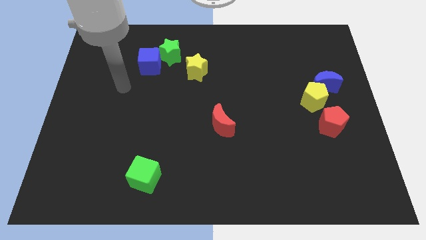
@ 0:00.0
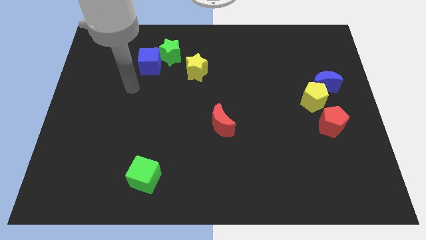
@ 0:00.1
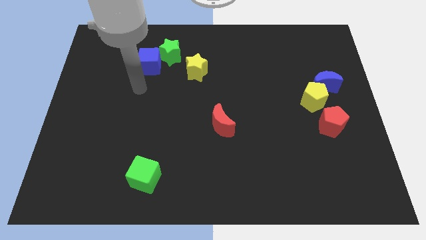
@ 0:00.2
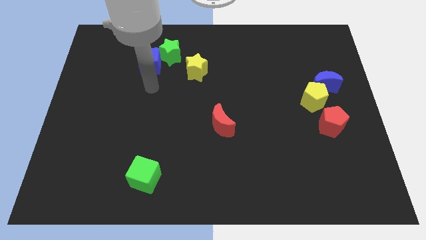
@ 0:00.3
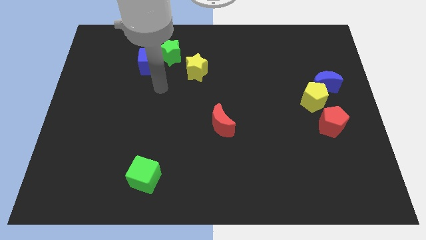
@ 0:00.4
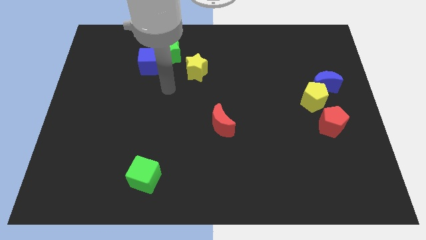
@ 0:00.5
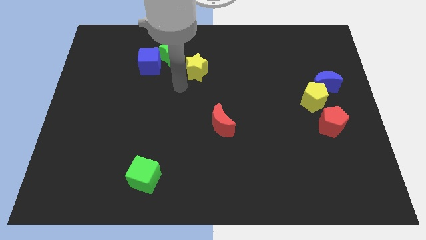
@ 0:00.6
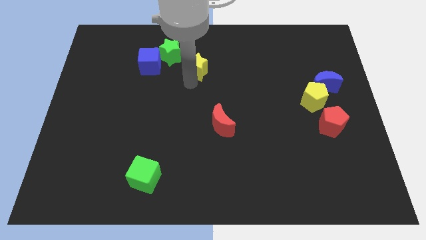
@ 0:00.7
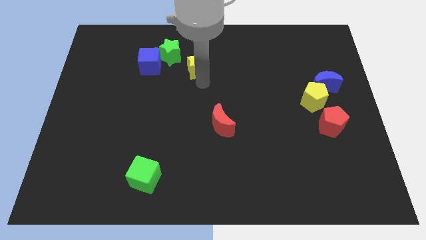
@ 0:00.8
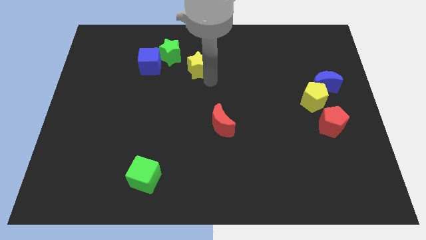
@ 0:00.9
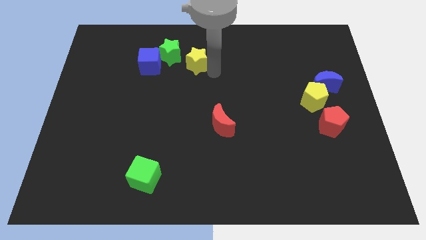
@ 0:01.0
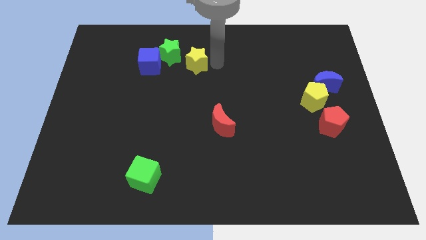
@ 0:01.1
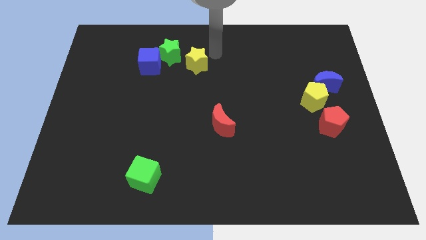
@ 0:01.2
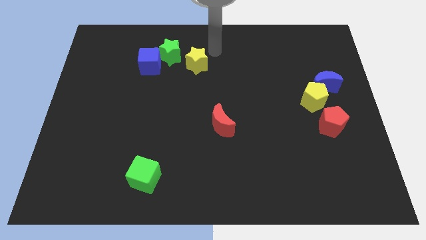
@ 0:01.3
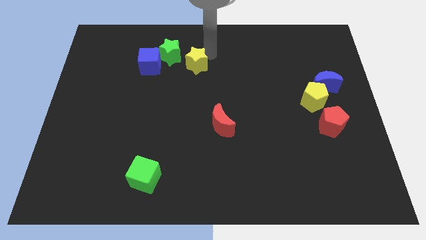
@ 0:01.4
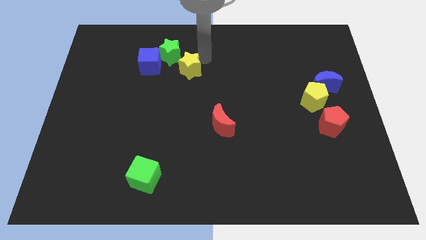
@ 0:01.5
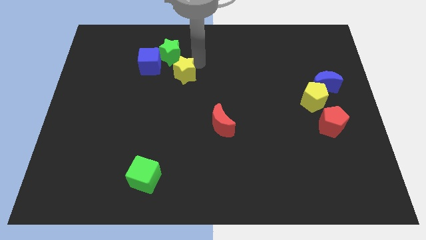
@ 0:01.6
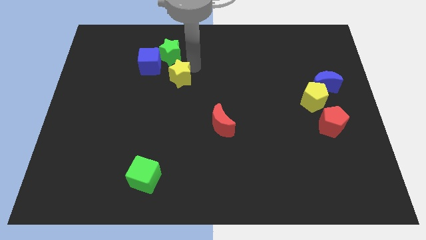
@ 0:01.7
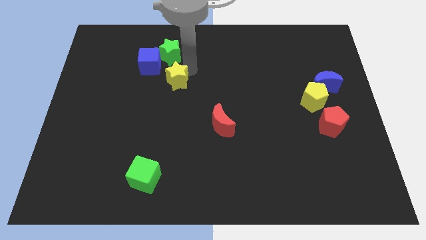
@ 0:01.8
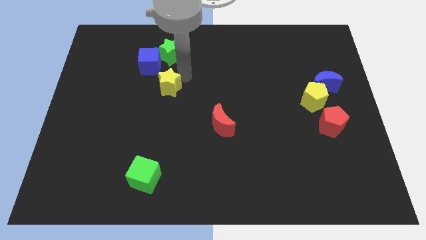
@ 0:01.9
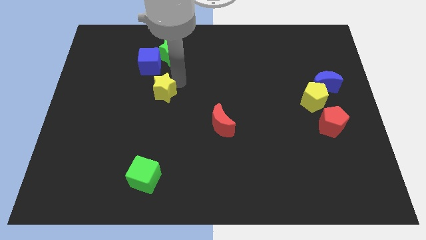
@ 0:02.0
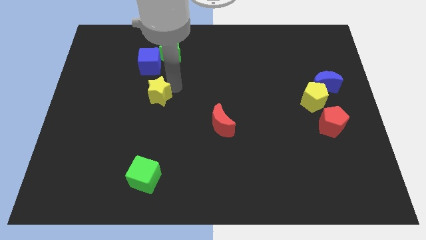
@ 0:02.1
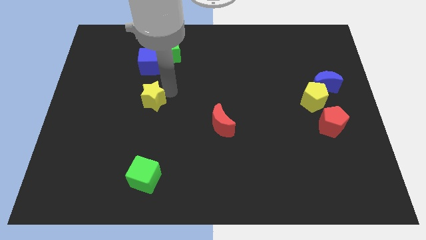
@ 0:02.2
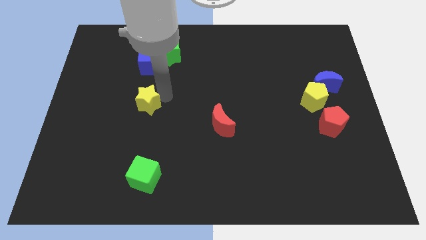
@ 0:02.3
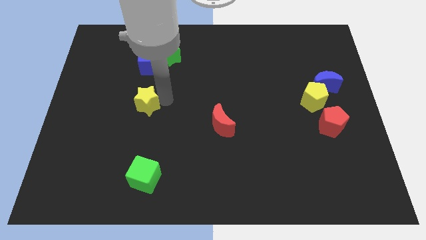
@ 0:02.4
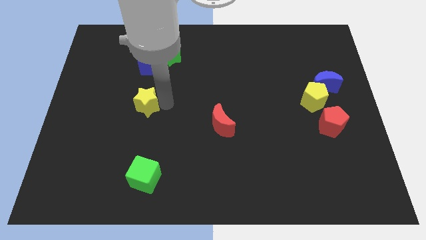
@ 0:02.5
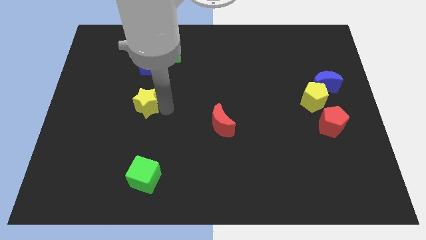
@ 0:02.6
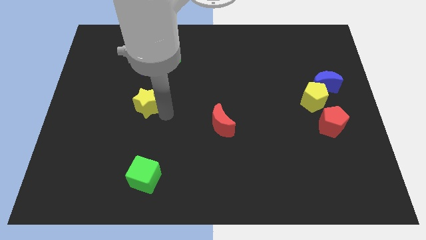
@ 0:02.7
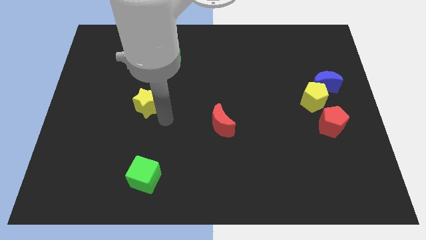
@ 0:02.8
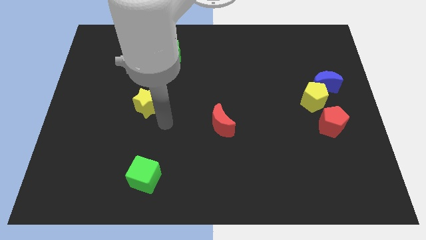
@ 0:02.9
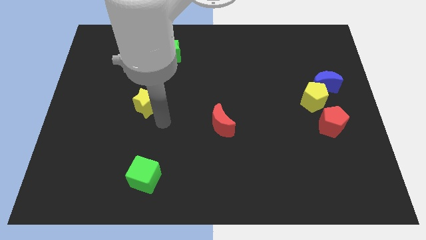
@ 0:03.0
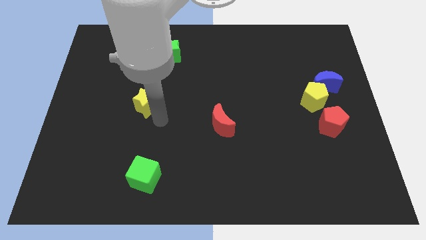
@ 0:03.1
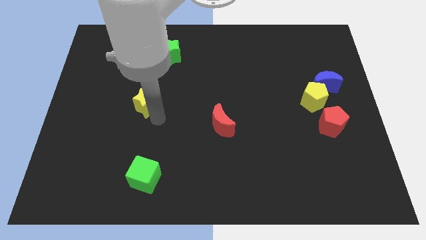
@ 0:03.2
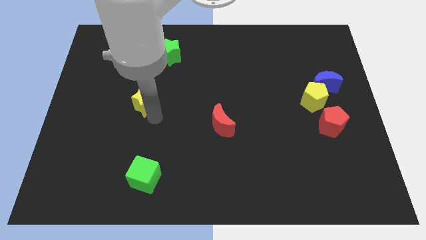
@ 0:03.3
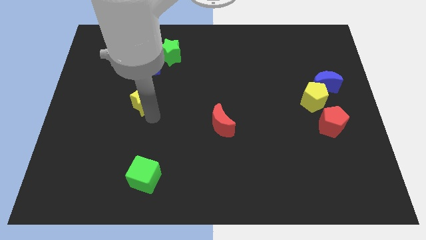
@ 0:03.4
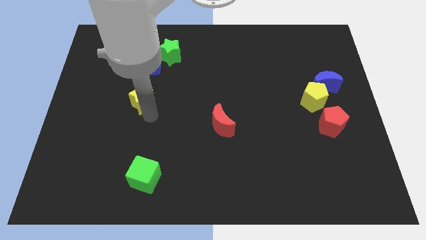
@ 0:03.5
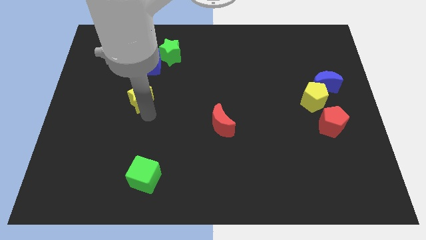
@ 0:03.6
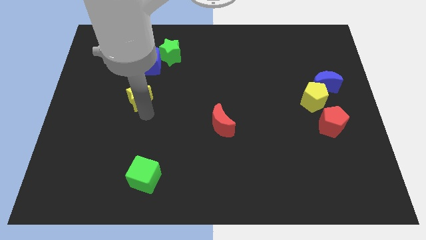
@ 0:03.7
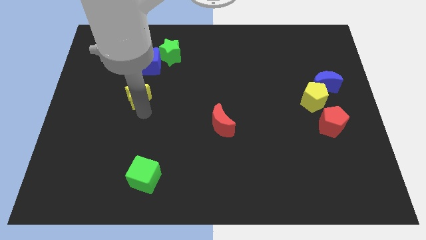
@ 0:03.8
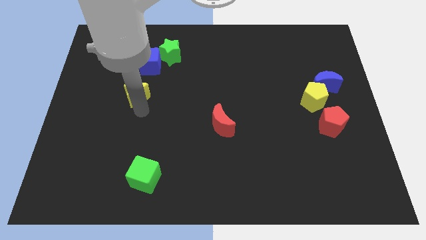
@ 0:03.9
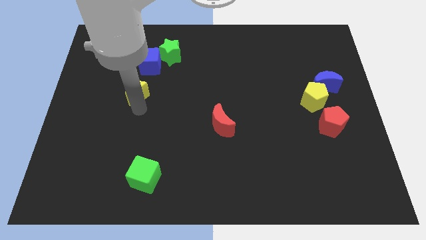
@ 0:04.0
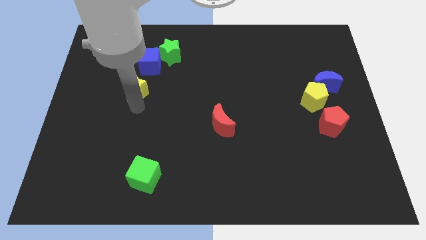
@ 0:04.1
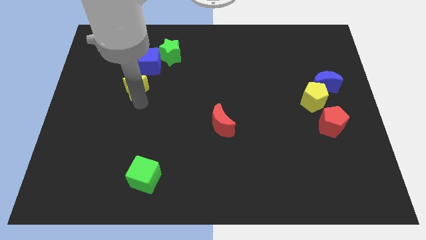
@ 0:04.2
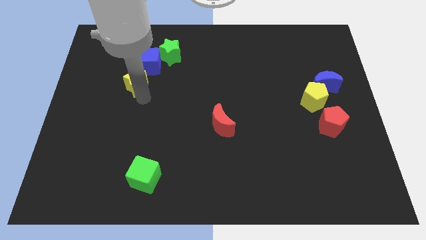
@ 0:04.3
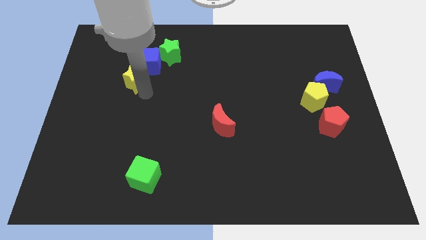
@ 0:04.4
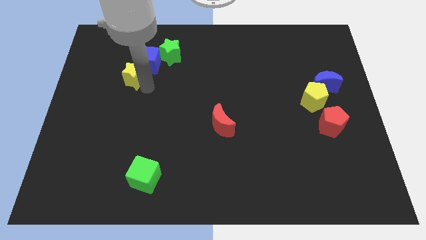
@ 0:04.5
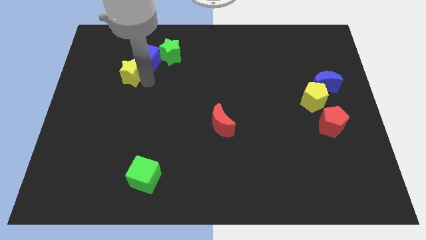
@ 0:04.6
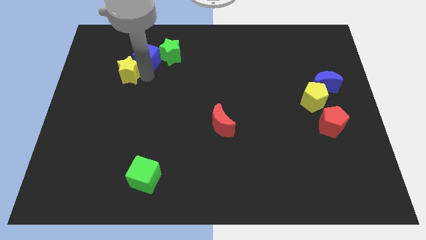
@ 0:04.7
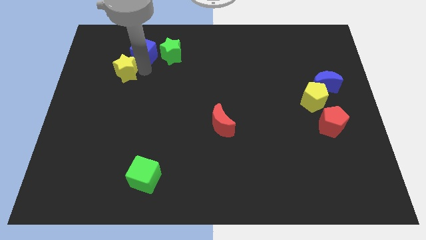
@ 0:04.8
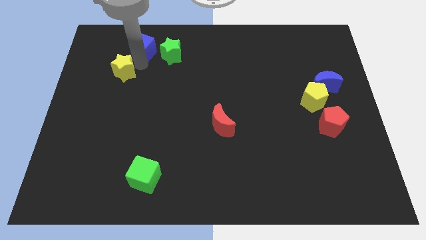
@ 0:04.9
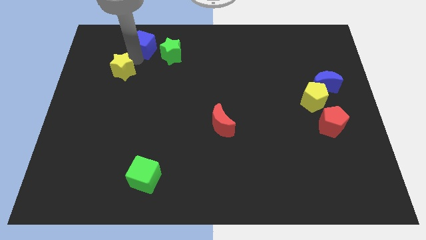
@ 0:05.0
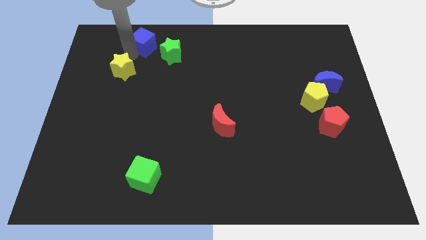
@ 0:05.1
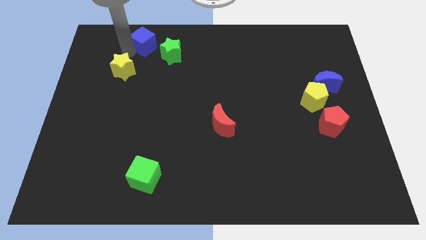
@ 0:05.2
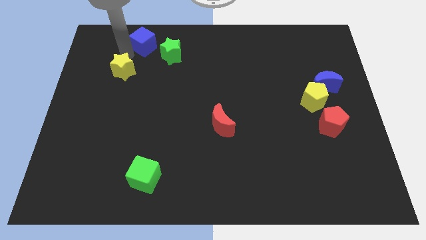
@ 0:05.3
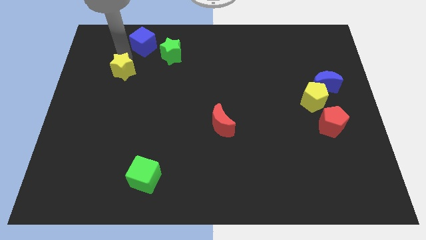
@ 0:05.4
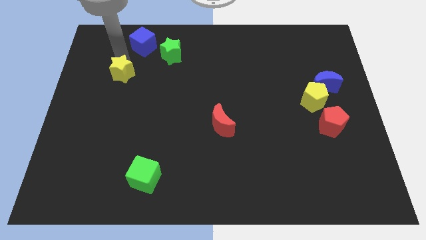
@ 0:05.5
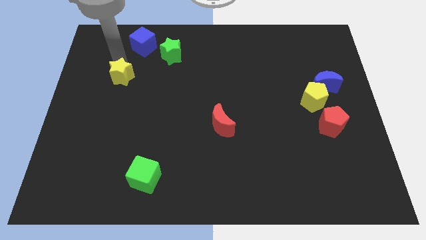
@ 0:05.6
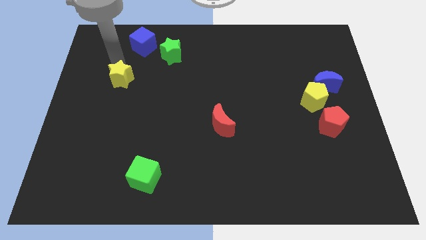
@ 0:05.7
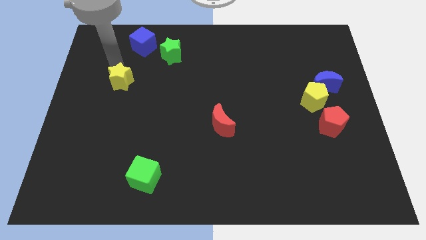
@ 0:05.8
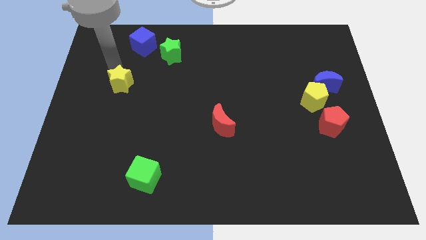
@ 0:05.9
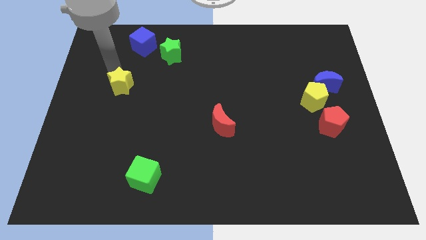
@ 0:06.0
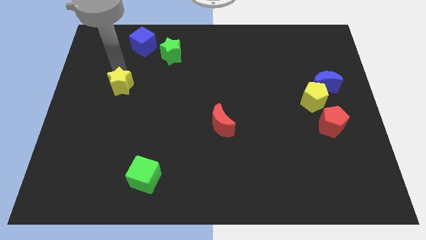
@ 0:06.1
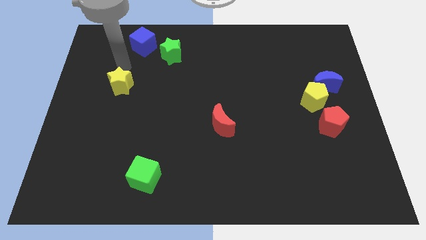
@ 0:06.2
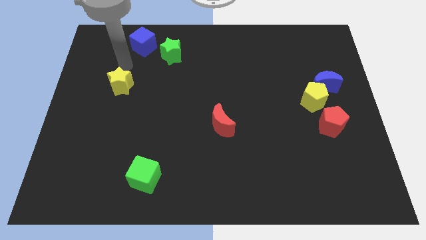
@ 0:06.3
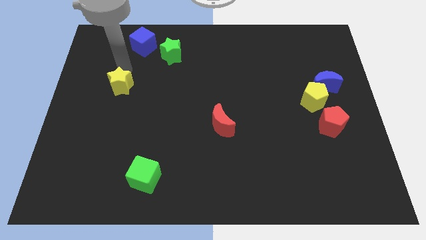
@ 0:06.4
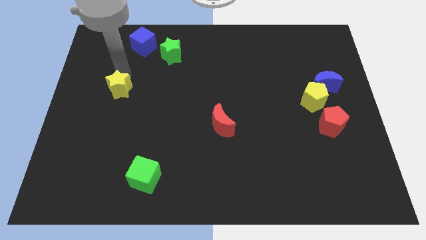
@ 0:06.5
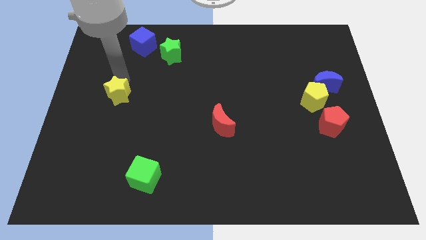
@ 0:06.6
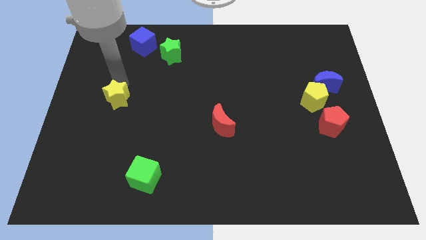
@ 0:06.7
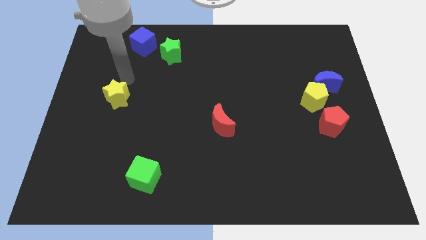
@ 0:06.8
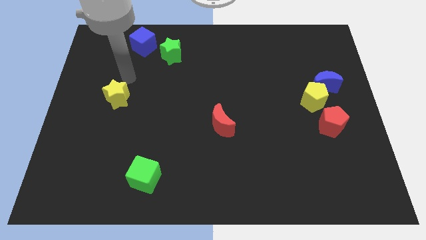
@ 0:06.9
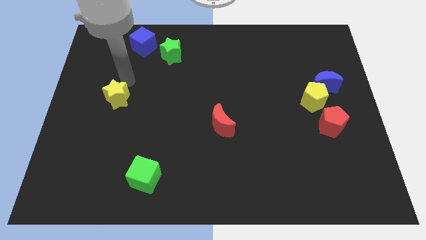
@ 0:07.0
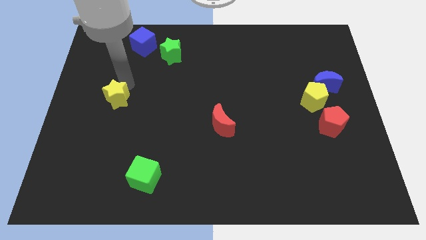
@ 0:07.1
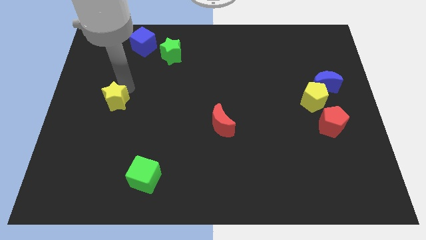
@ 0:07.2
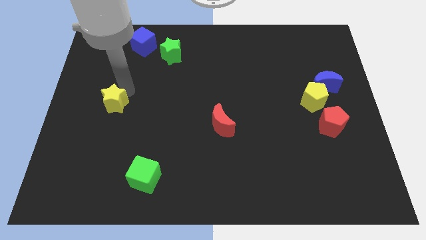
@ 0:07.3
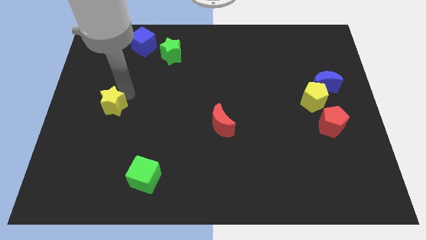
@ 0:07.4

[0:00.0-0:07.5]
move the yellow star diagonally downwards and to the left

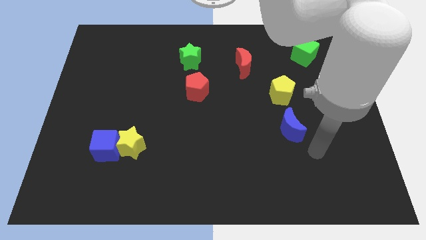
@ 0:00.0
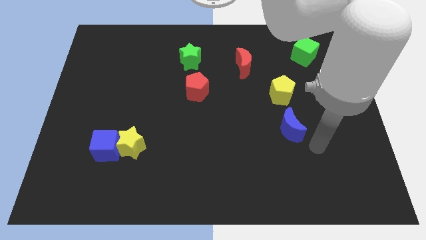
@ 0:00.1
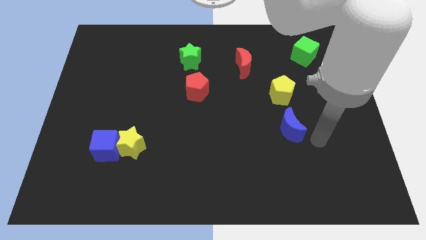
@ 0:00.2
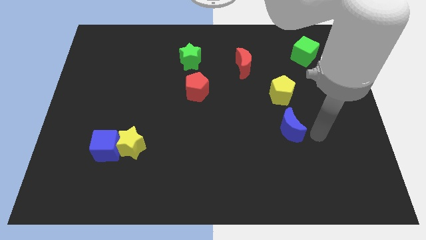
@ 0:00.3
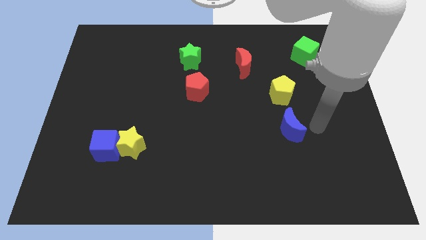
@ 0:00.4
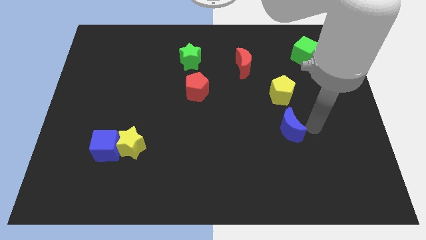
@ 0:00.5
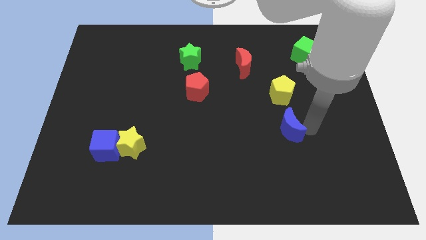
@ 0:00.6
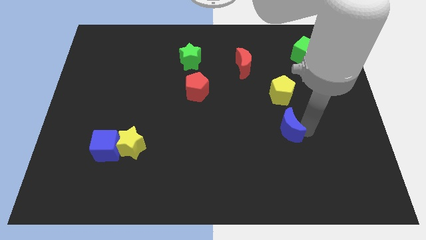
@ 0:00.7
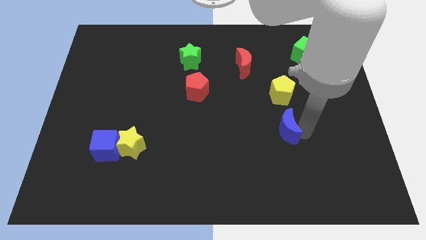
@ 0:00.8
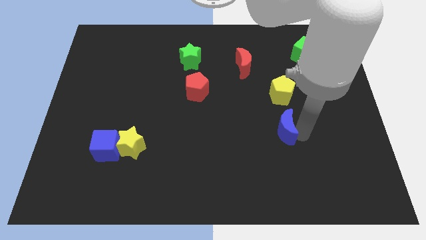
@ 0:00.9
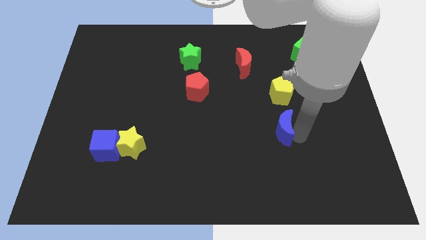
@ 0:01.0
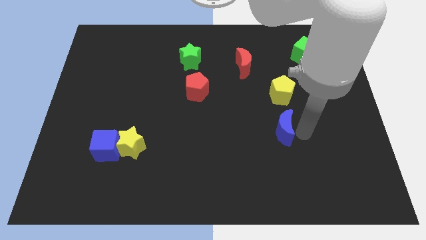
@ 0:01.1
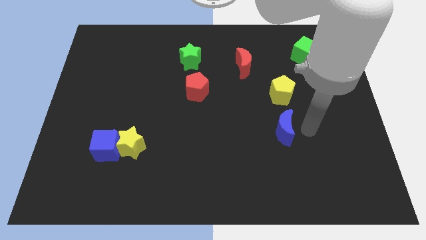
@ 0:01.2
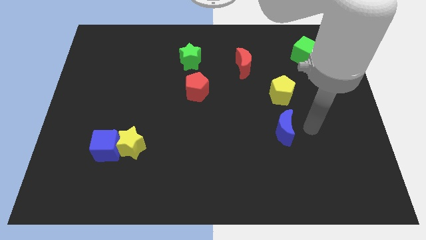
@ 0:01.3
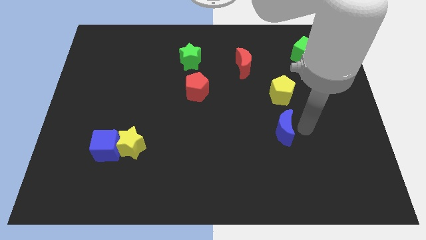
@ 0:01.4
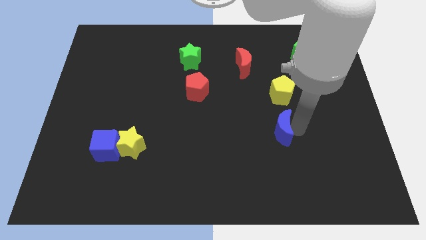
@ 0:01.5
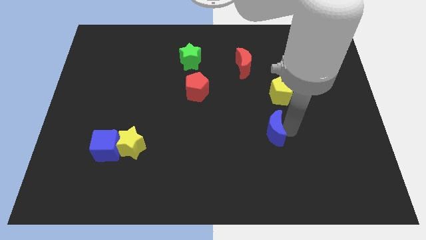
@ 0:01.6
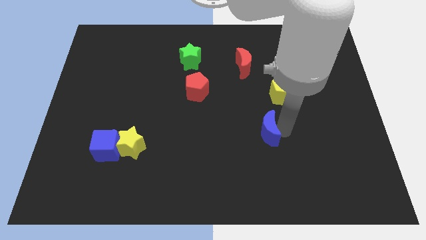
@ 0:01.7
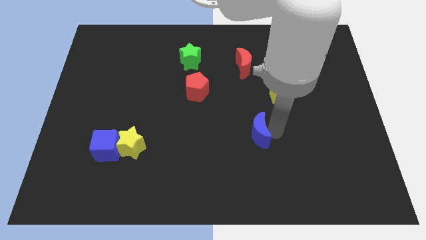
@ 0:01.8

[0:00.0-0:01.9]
move the blue moon to the left slightly
